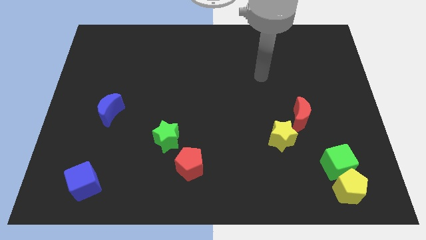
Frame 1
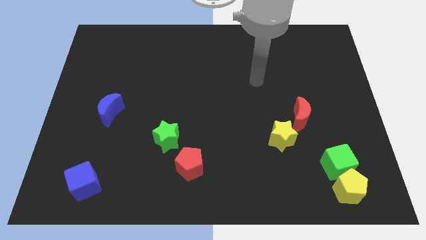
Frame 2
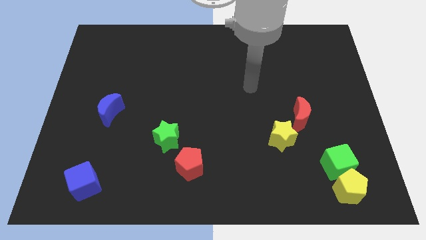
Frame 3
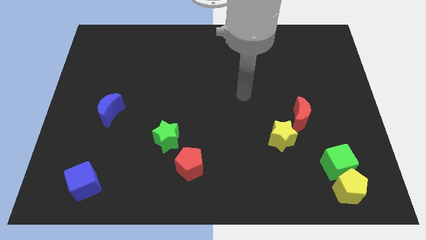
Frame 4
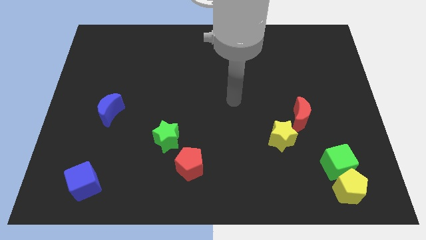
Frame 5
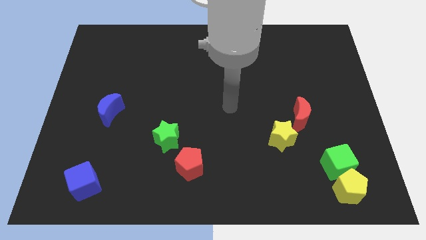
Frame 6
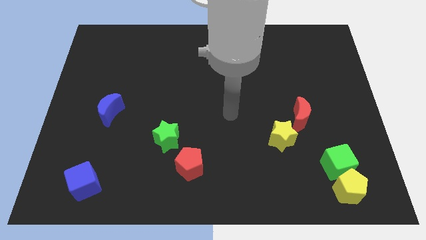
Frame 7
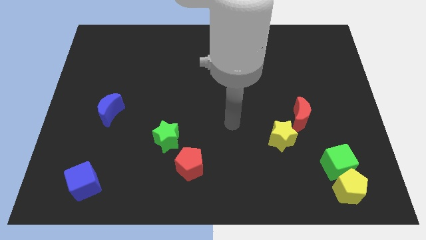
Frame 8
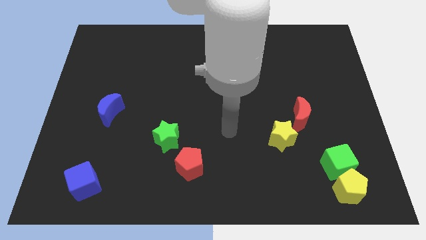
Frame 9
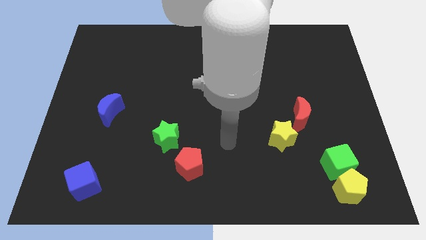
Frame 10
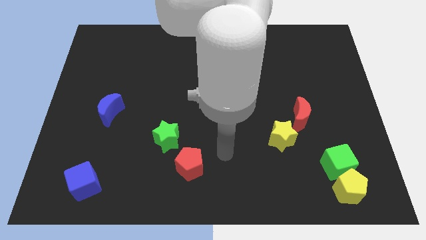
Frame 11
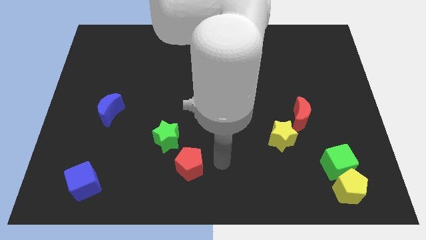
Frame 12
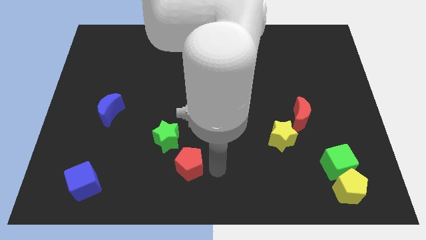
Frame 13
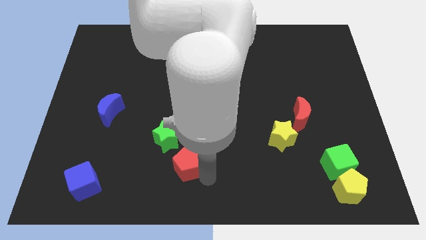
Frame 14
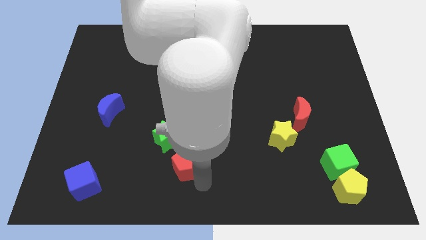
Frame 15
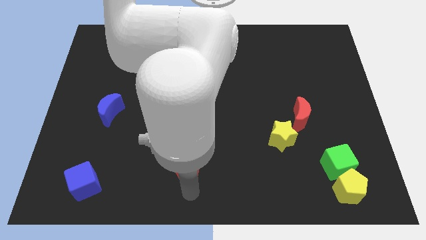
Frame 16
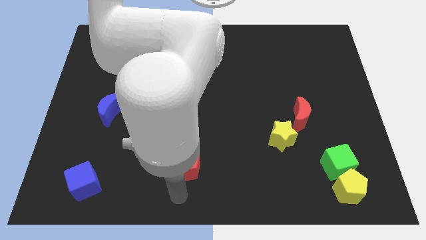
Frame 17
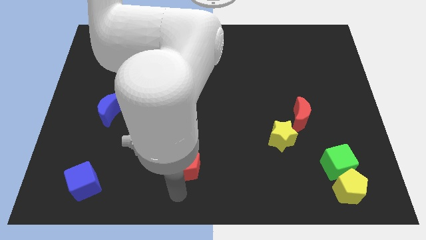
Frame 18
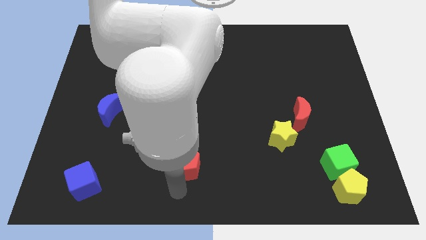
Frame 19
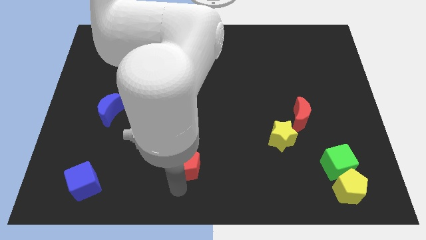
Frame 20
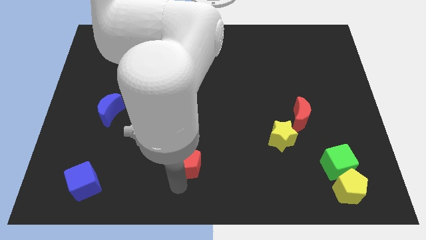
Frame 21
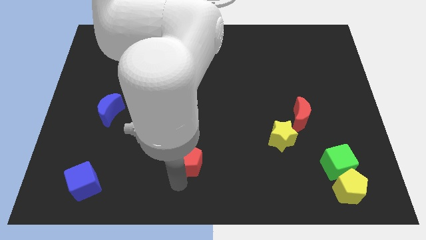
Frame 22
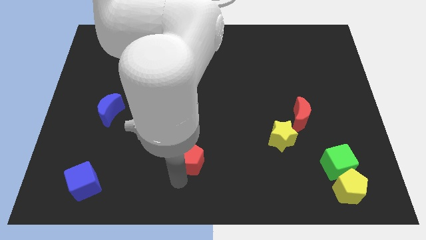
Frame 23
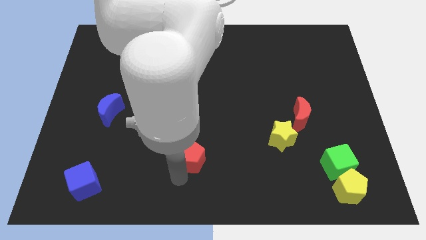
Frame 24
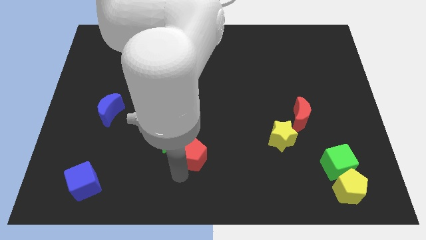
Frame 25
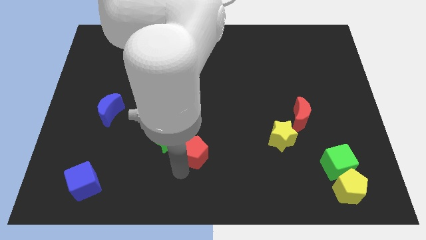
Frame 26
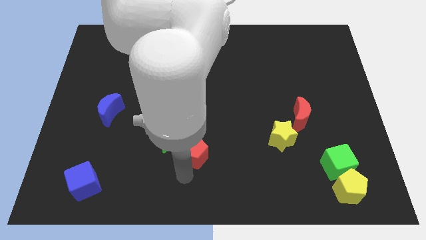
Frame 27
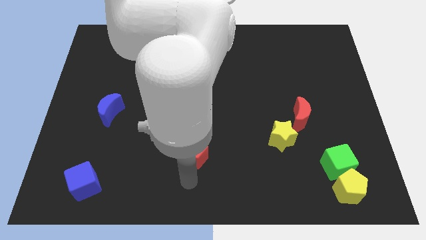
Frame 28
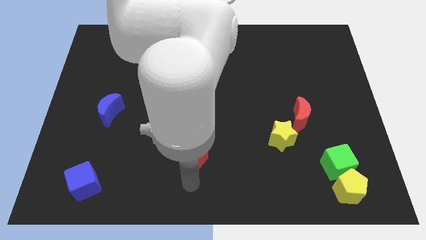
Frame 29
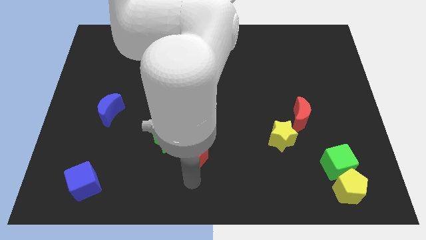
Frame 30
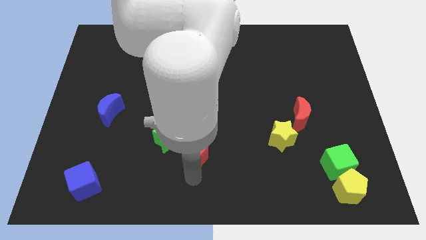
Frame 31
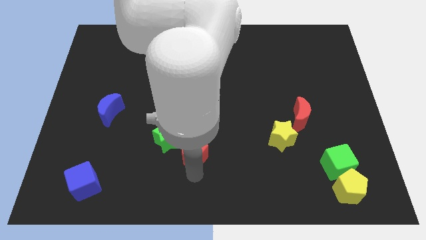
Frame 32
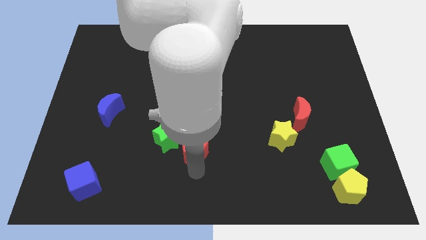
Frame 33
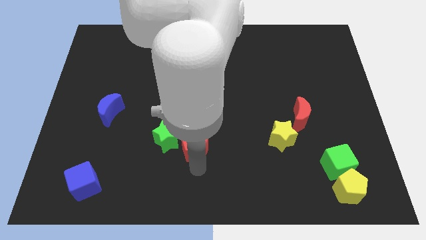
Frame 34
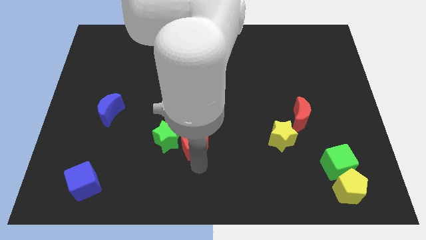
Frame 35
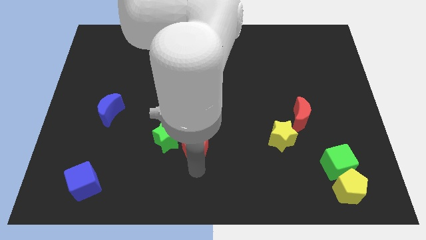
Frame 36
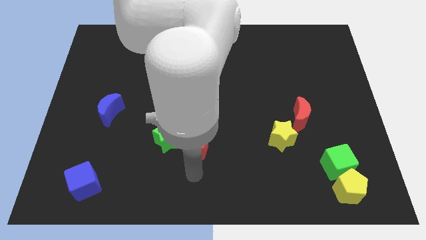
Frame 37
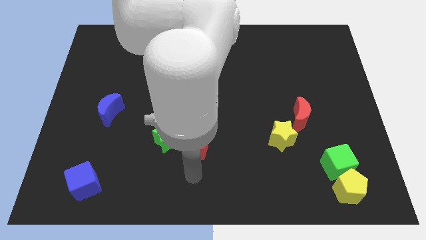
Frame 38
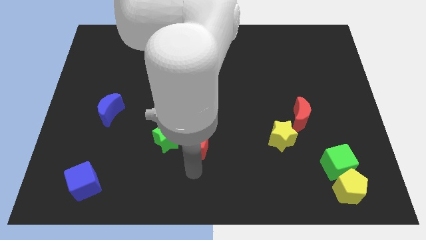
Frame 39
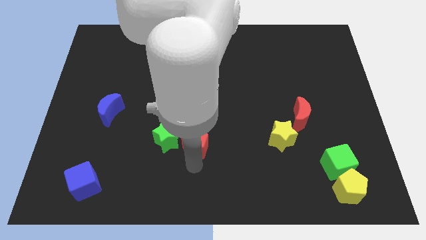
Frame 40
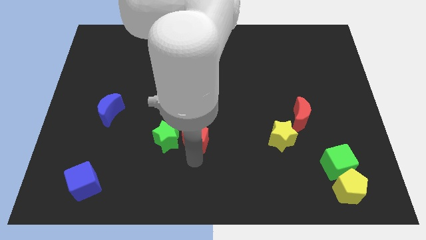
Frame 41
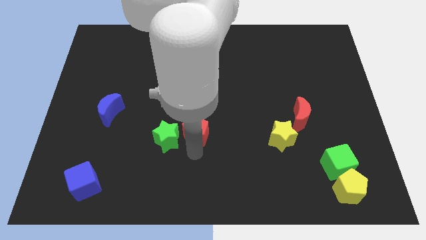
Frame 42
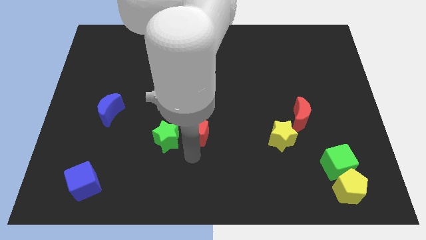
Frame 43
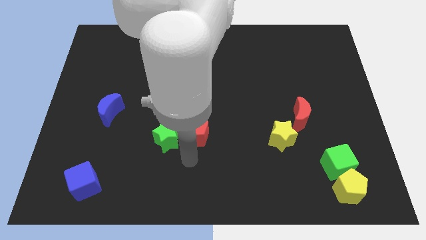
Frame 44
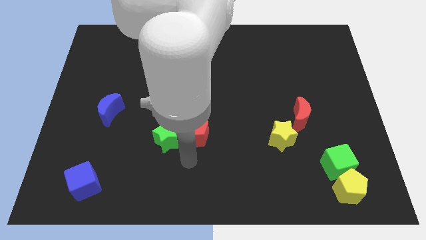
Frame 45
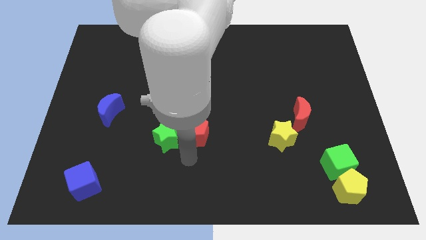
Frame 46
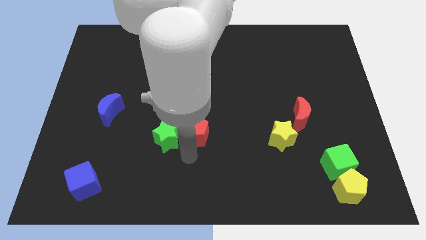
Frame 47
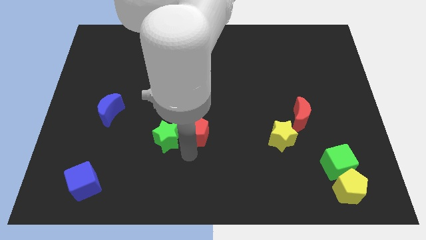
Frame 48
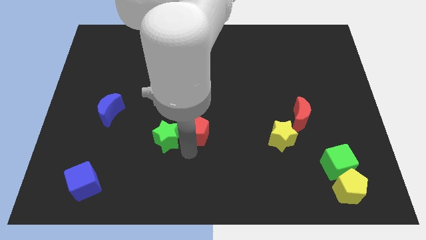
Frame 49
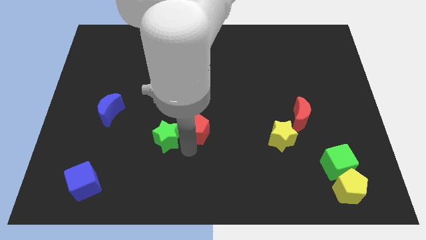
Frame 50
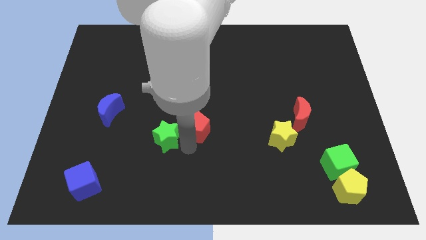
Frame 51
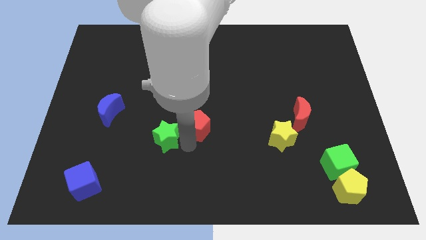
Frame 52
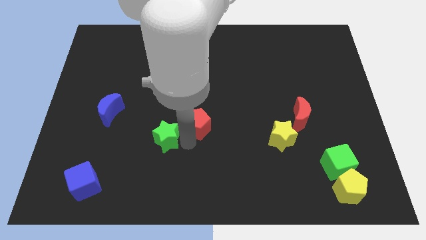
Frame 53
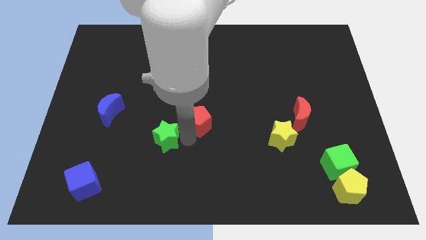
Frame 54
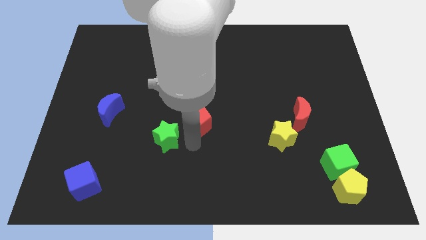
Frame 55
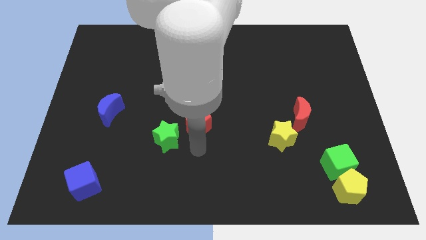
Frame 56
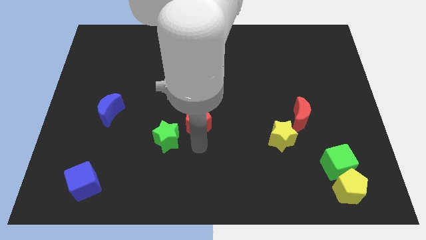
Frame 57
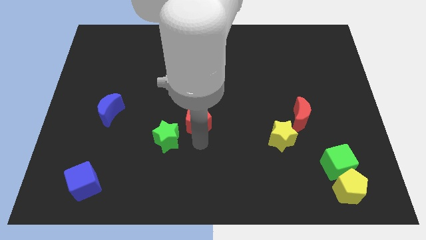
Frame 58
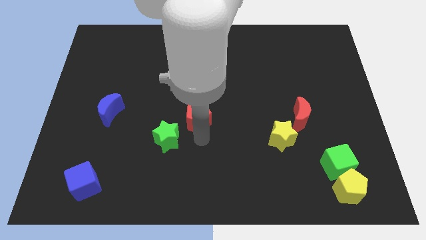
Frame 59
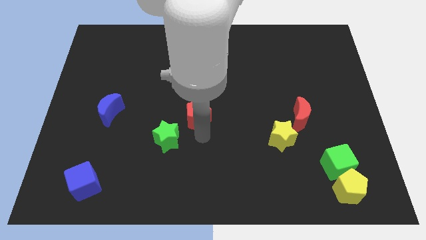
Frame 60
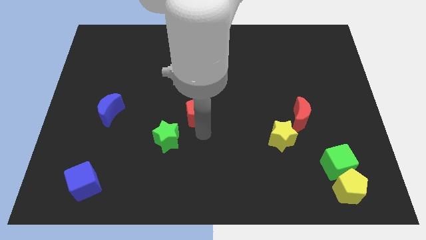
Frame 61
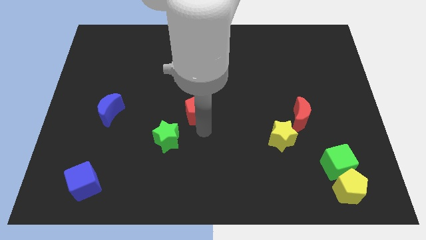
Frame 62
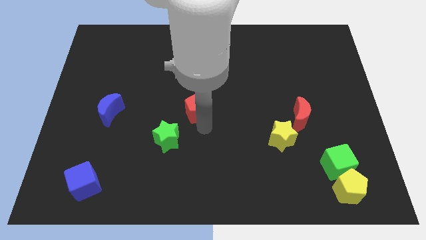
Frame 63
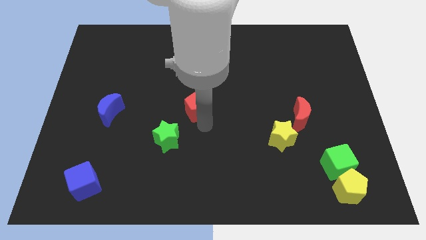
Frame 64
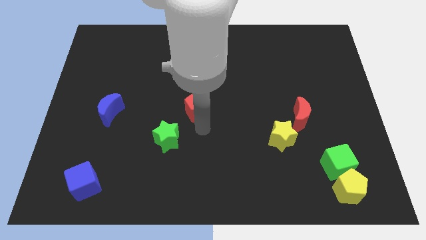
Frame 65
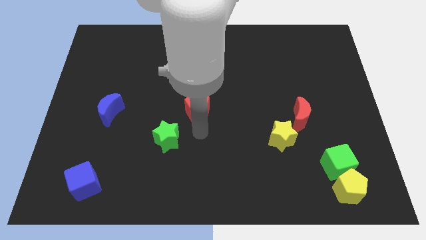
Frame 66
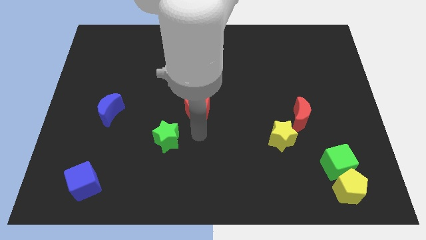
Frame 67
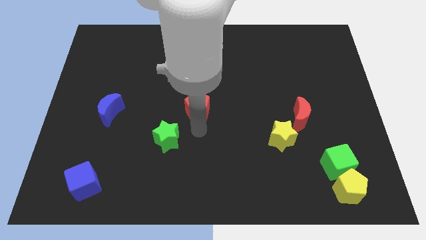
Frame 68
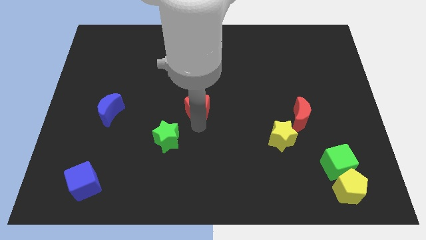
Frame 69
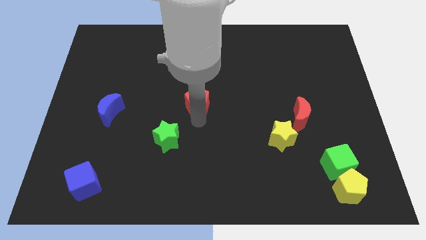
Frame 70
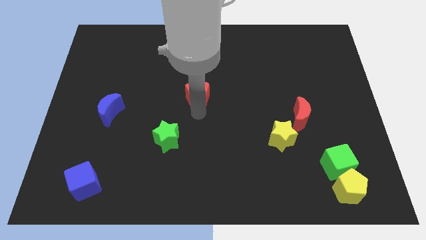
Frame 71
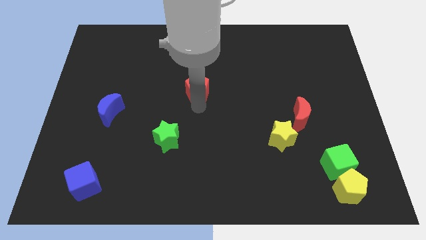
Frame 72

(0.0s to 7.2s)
slide the red pentagon up

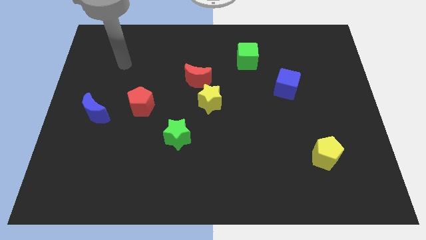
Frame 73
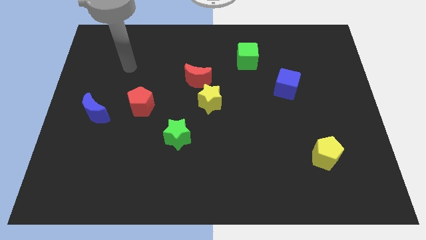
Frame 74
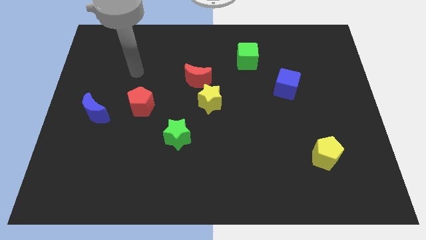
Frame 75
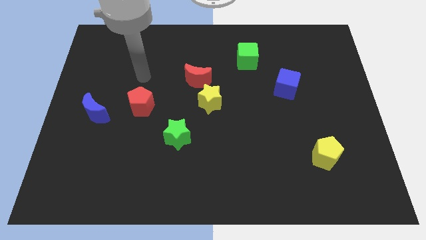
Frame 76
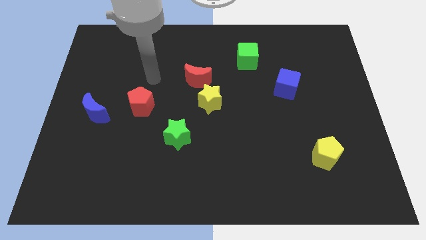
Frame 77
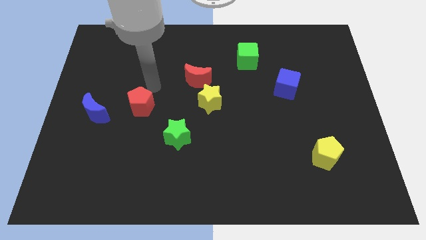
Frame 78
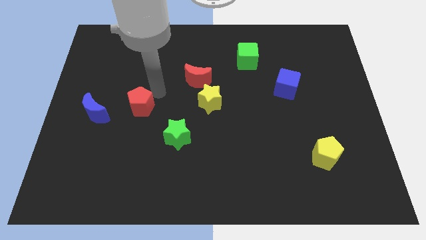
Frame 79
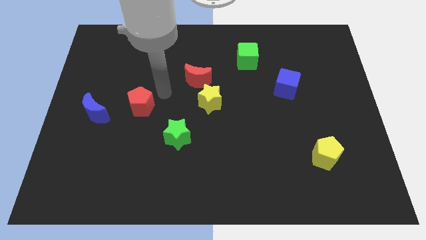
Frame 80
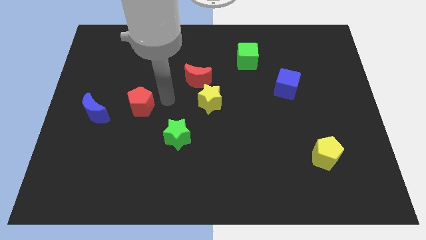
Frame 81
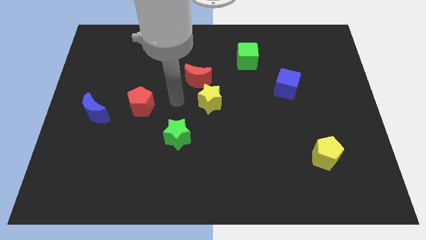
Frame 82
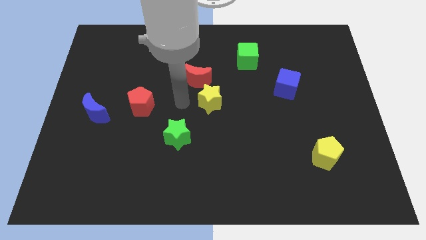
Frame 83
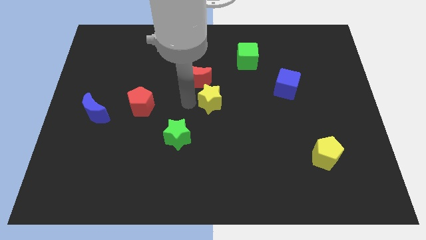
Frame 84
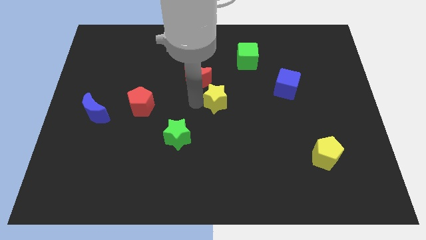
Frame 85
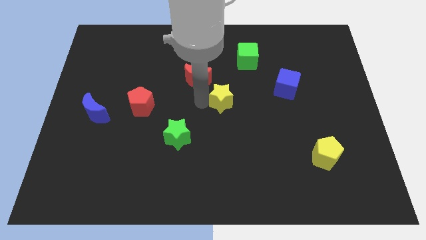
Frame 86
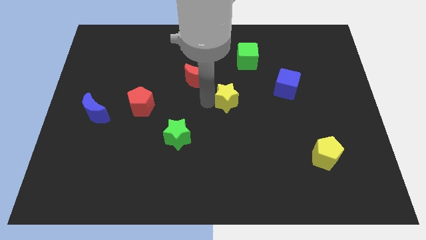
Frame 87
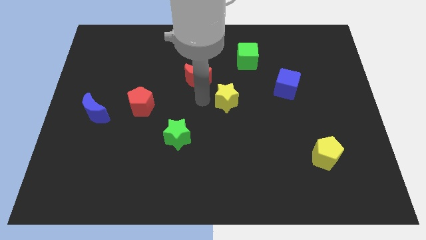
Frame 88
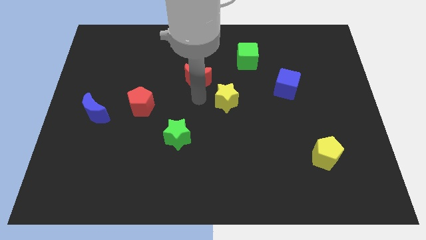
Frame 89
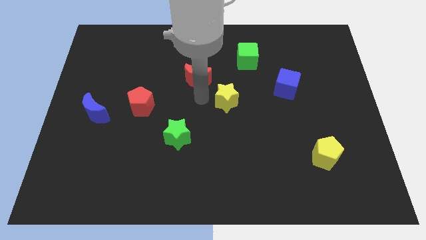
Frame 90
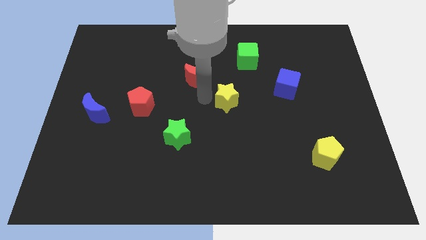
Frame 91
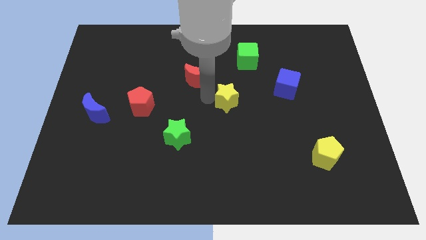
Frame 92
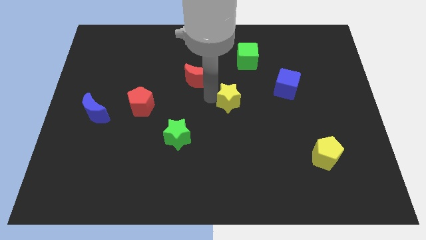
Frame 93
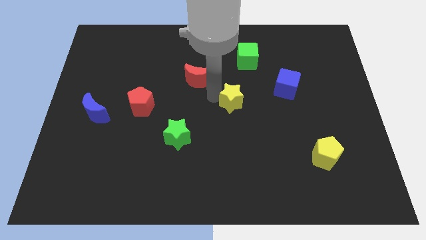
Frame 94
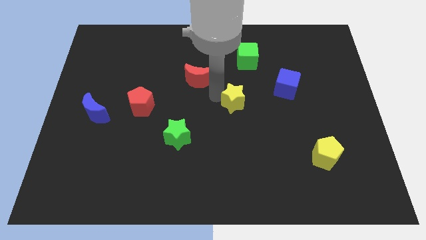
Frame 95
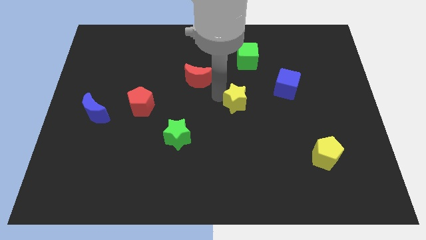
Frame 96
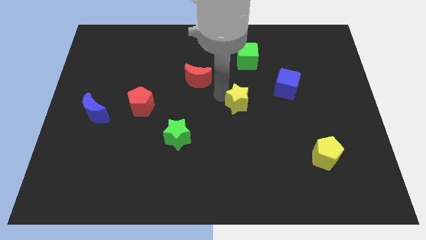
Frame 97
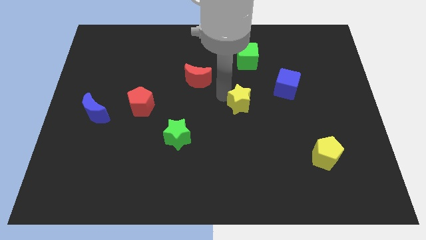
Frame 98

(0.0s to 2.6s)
push the yellow star to the right somewhat
